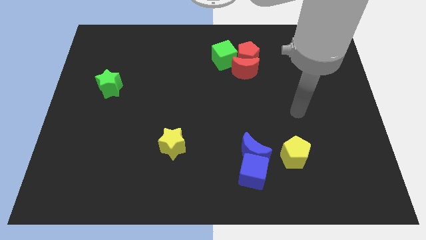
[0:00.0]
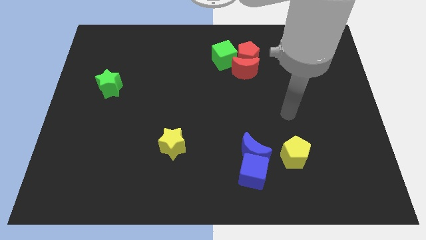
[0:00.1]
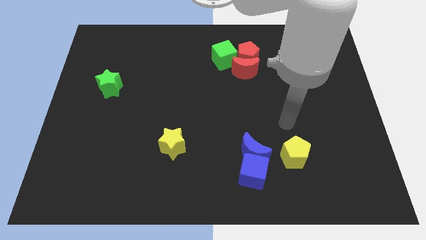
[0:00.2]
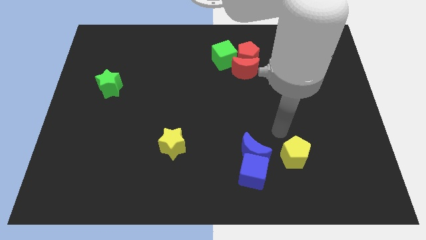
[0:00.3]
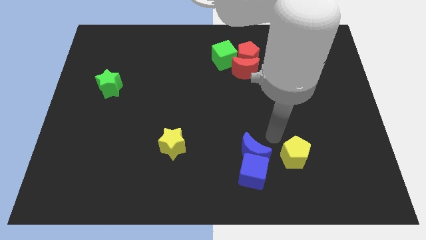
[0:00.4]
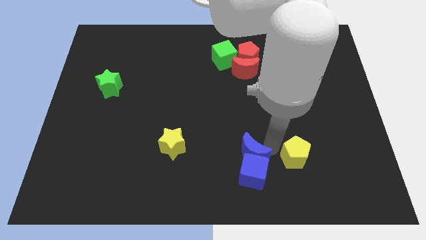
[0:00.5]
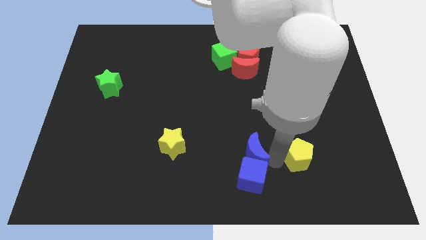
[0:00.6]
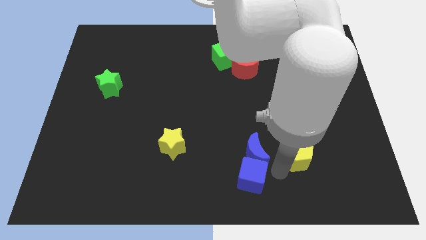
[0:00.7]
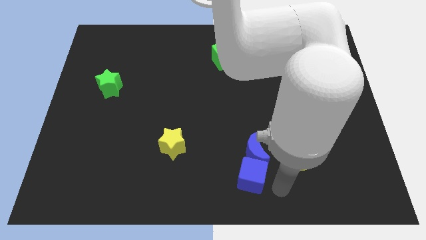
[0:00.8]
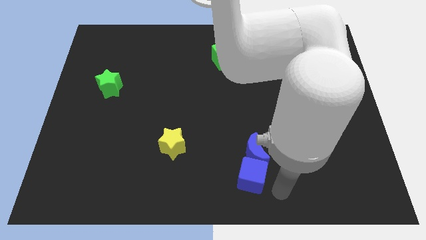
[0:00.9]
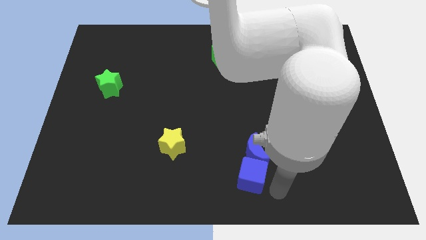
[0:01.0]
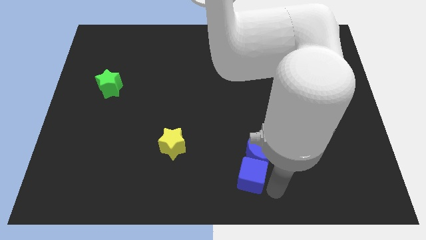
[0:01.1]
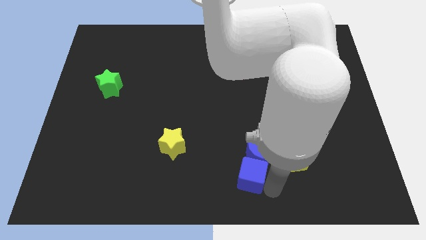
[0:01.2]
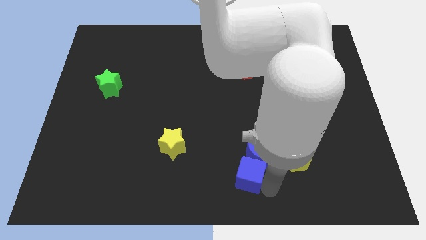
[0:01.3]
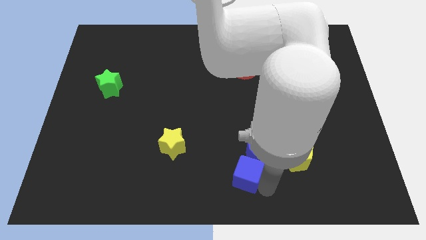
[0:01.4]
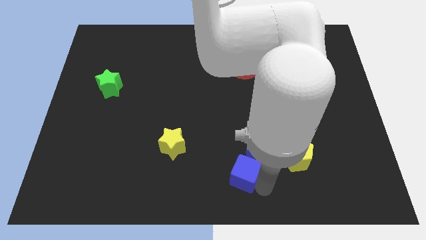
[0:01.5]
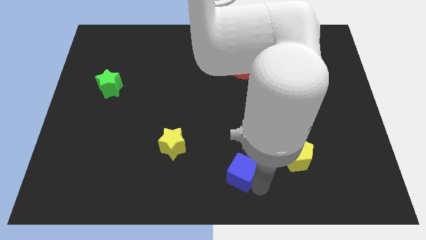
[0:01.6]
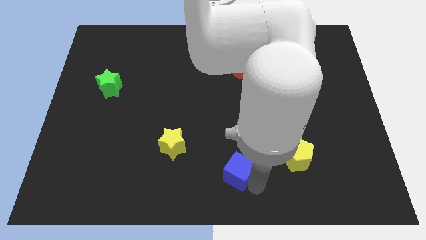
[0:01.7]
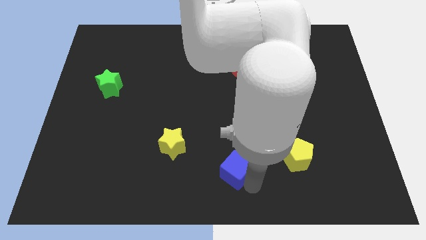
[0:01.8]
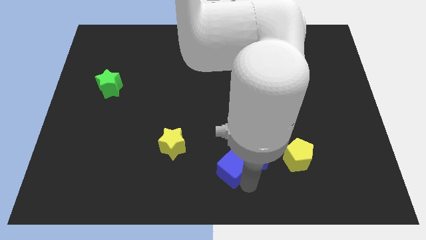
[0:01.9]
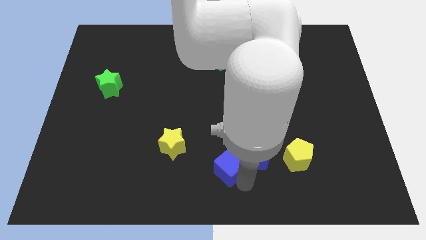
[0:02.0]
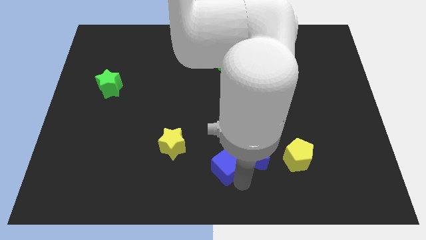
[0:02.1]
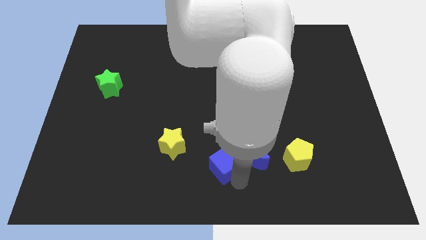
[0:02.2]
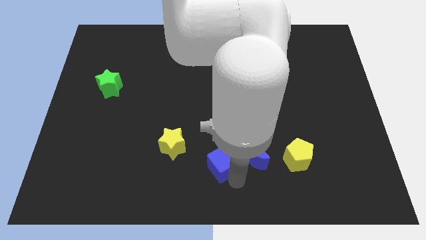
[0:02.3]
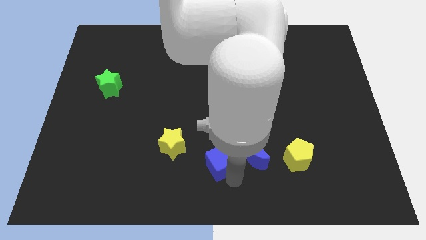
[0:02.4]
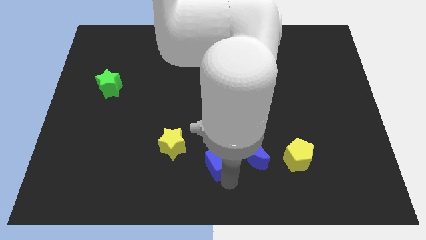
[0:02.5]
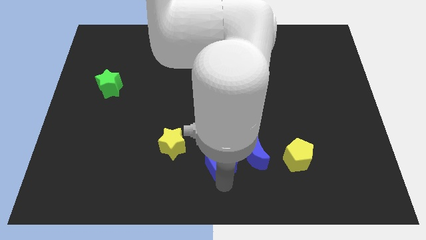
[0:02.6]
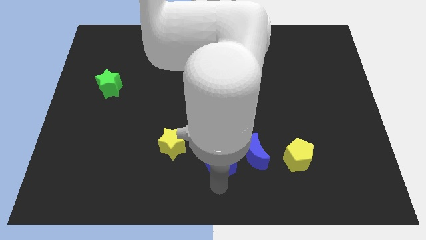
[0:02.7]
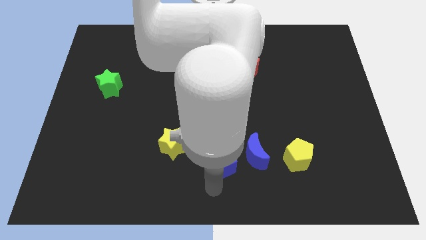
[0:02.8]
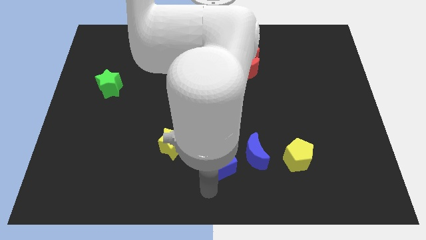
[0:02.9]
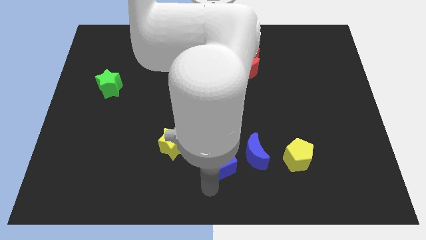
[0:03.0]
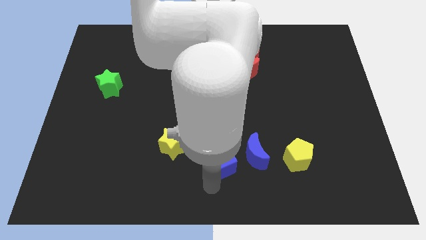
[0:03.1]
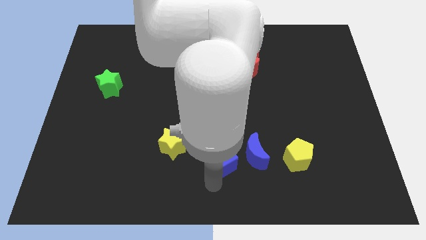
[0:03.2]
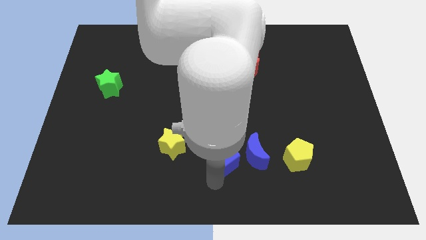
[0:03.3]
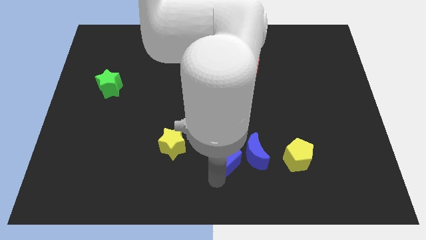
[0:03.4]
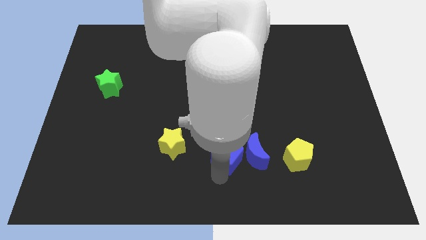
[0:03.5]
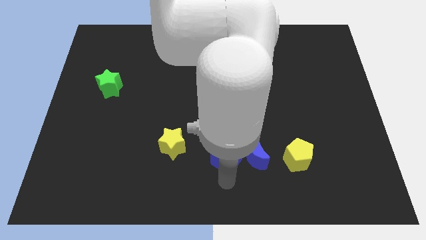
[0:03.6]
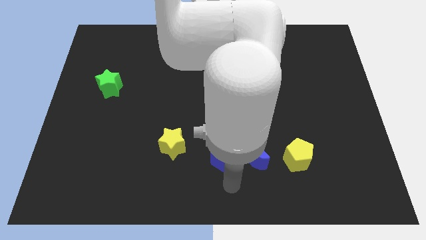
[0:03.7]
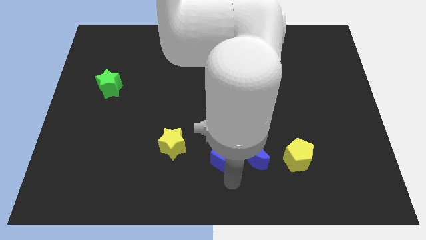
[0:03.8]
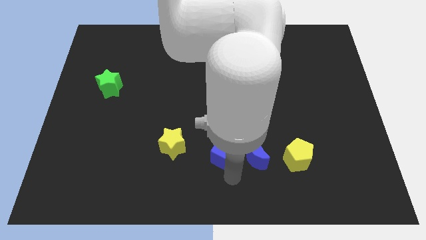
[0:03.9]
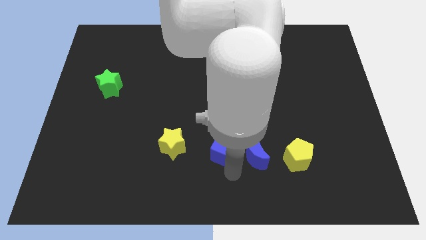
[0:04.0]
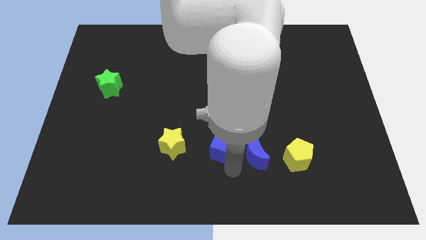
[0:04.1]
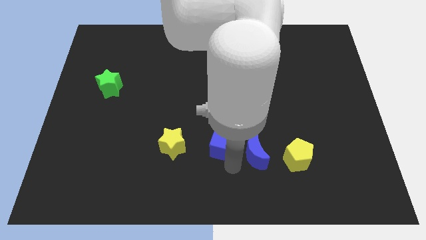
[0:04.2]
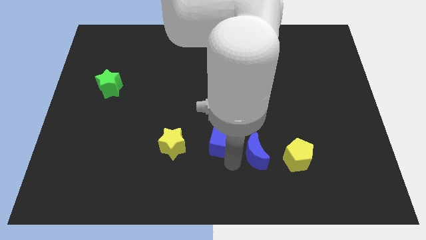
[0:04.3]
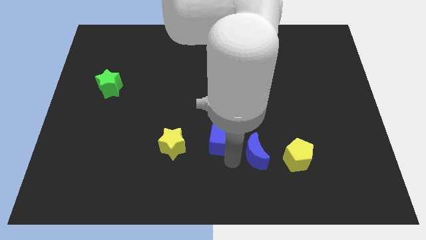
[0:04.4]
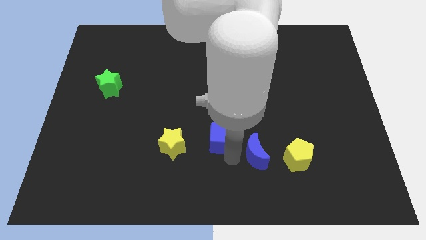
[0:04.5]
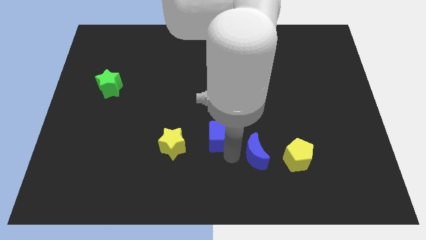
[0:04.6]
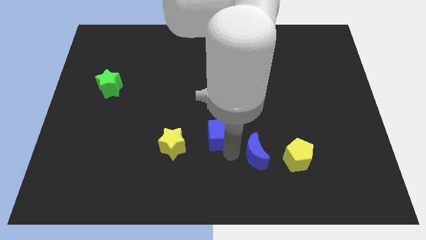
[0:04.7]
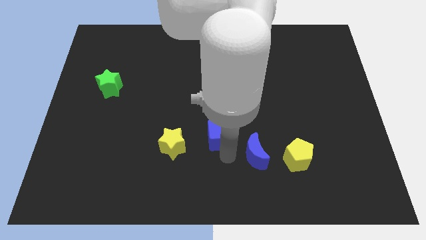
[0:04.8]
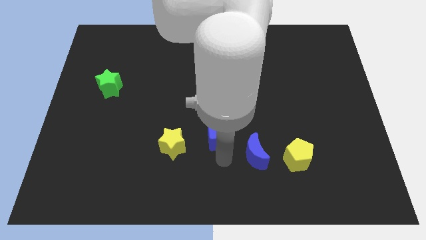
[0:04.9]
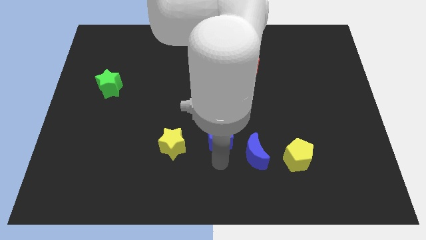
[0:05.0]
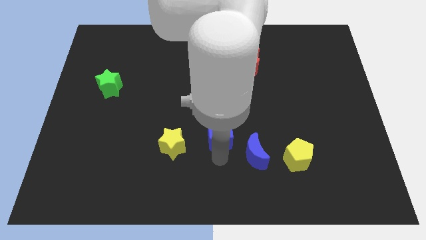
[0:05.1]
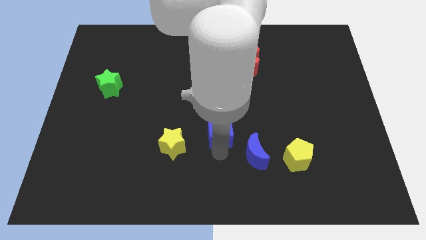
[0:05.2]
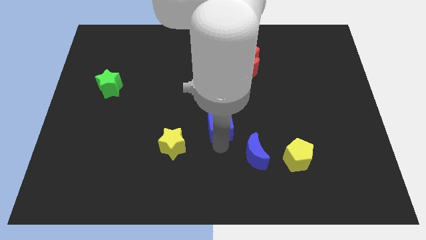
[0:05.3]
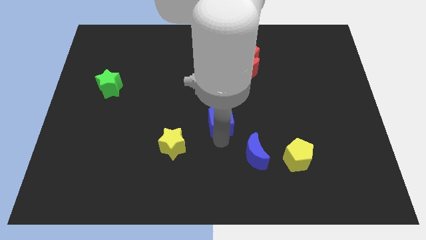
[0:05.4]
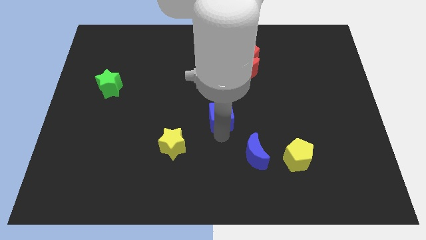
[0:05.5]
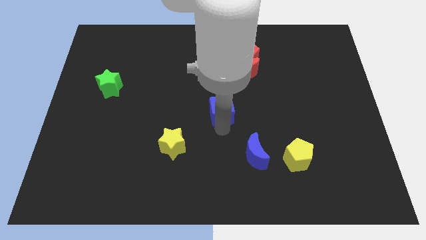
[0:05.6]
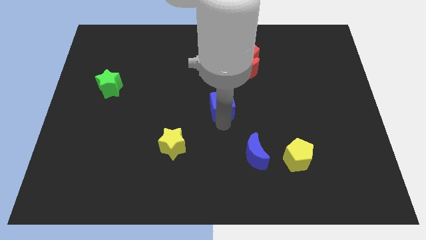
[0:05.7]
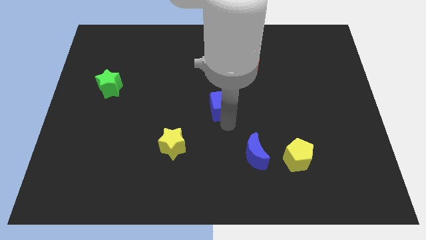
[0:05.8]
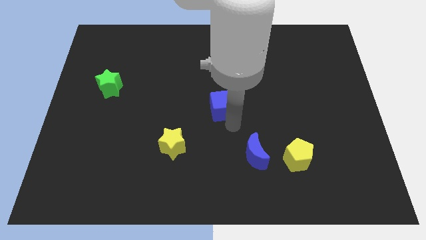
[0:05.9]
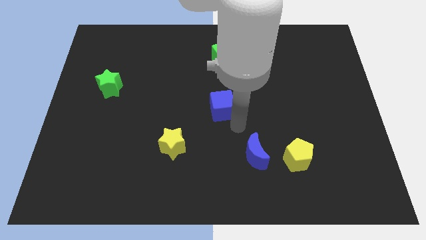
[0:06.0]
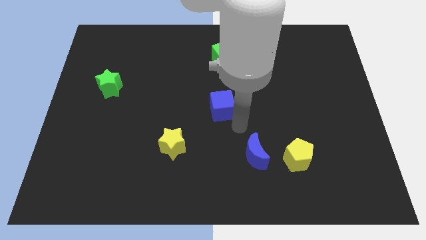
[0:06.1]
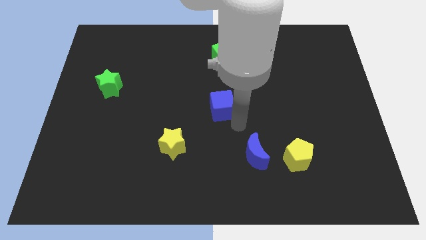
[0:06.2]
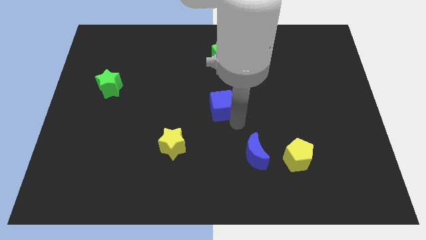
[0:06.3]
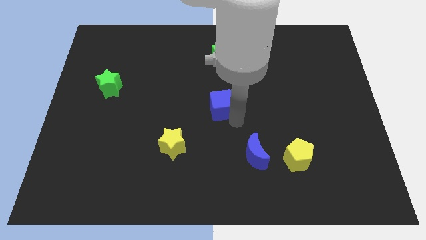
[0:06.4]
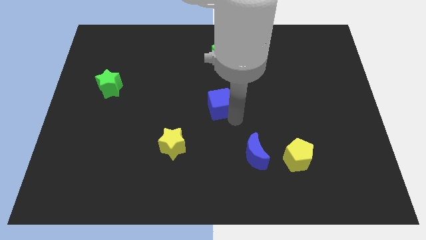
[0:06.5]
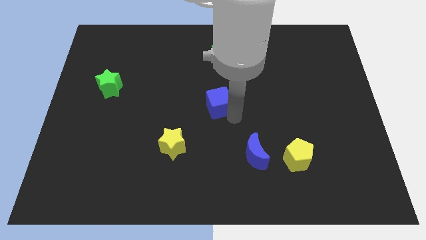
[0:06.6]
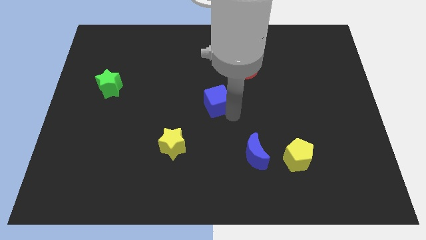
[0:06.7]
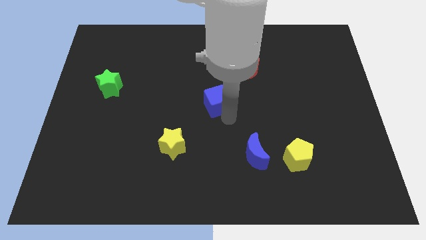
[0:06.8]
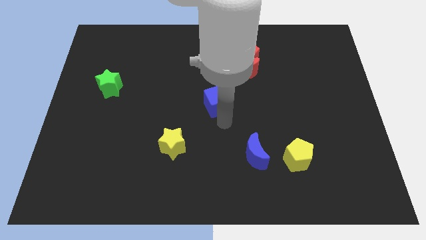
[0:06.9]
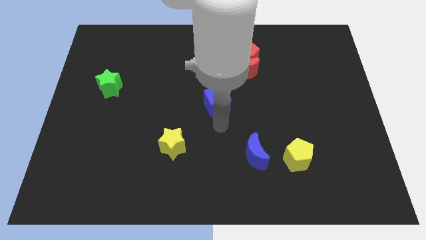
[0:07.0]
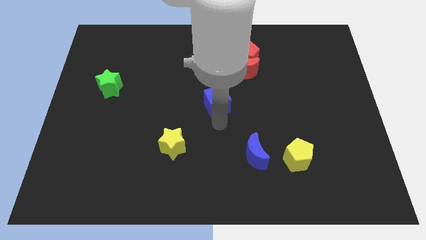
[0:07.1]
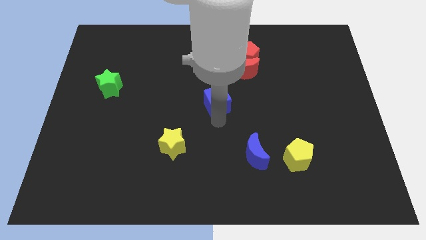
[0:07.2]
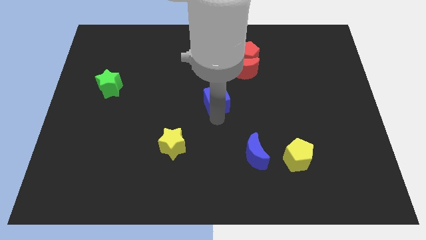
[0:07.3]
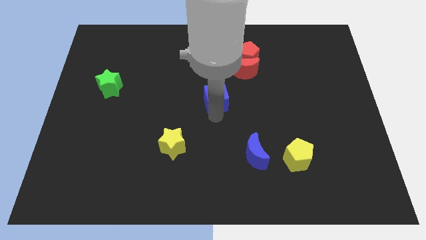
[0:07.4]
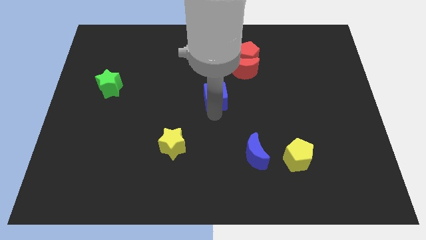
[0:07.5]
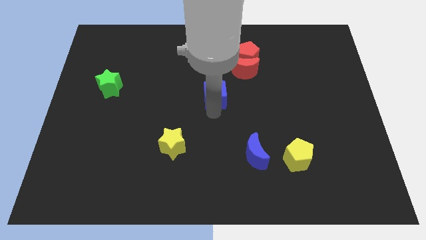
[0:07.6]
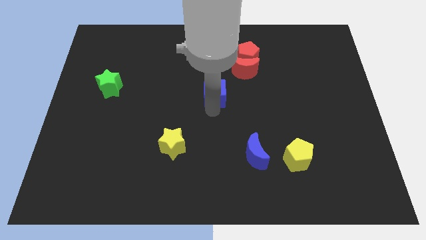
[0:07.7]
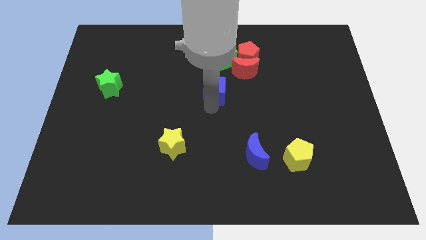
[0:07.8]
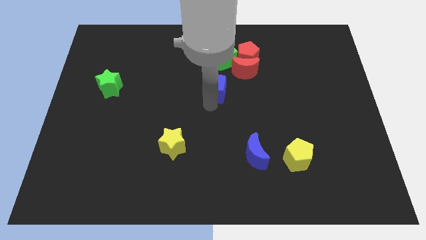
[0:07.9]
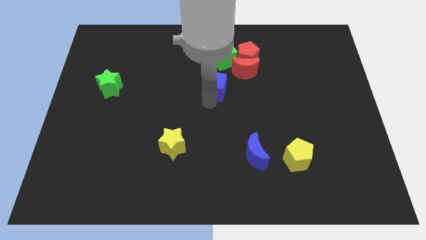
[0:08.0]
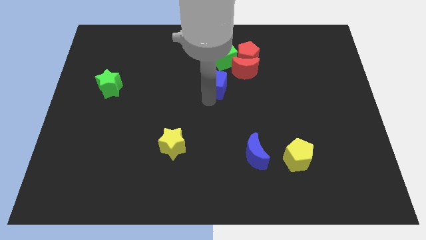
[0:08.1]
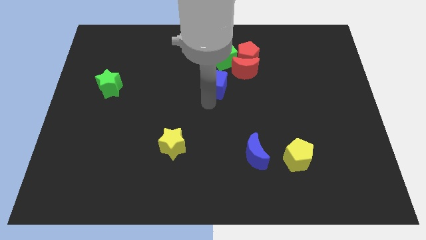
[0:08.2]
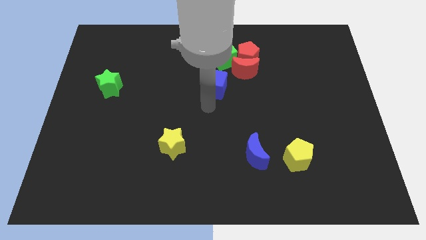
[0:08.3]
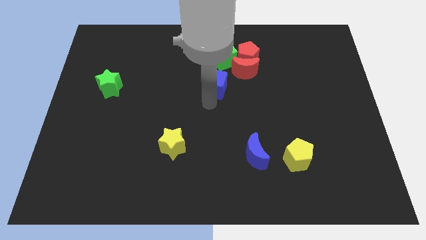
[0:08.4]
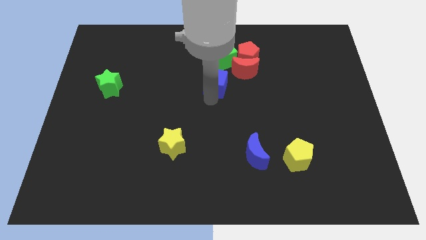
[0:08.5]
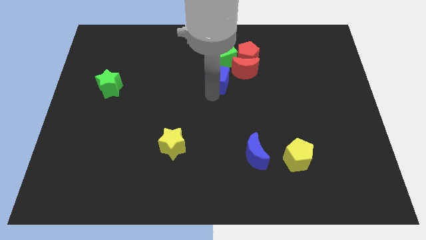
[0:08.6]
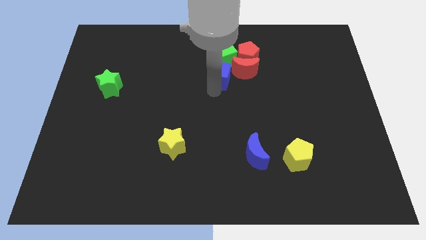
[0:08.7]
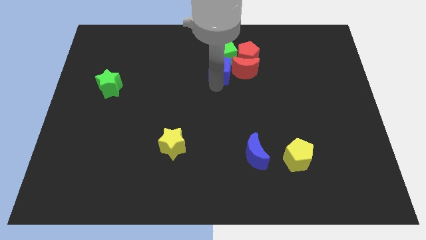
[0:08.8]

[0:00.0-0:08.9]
move the blue cube close to the green cube
